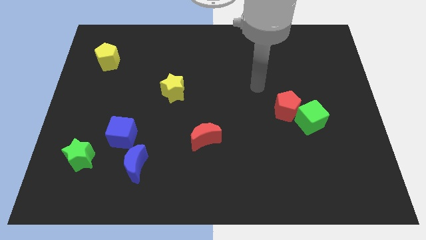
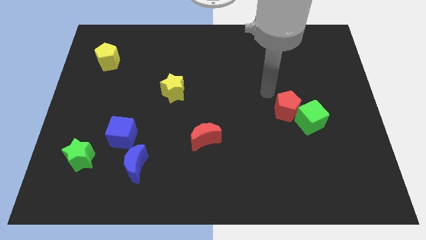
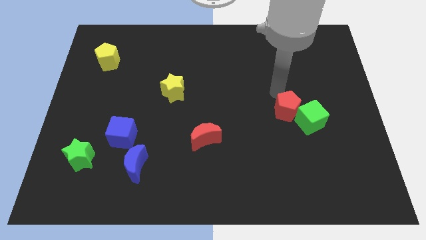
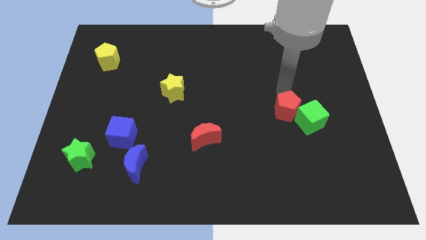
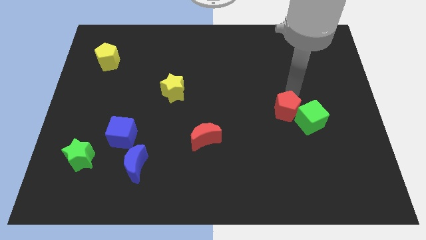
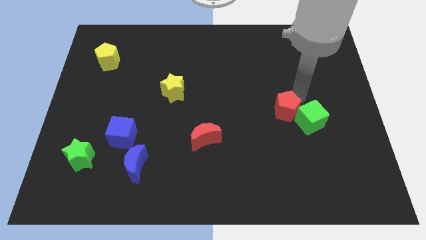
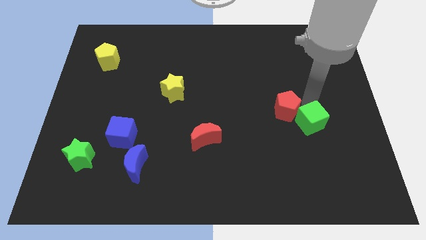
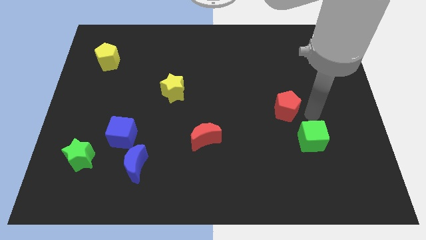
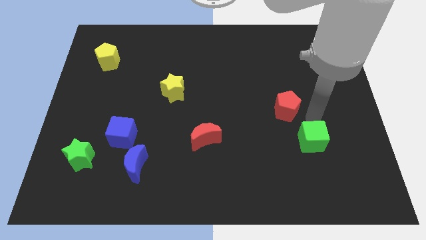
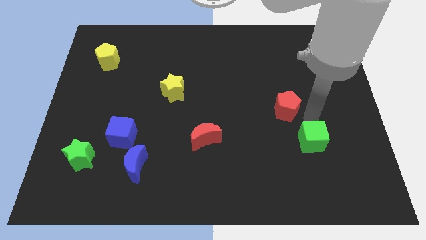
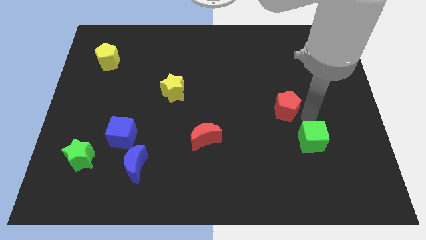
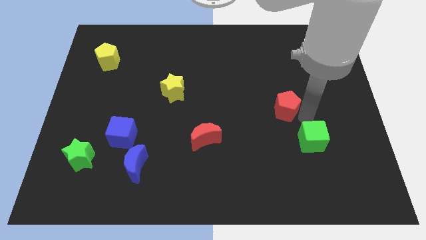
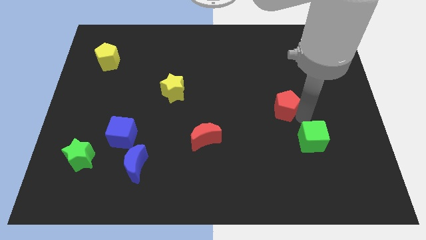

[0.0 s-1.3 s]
move the red pentagon away from the green cube

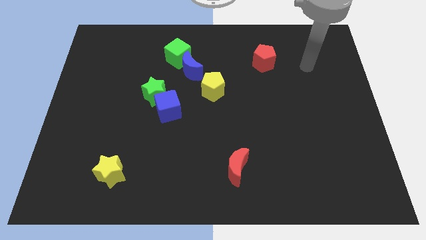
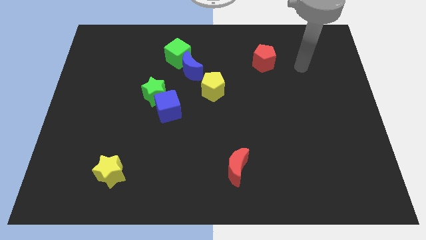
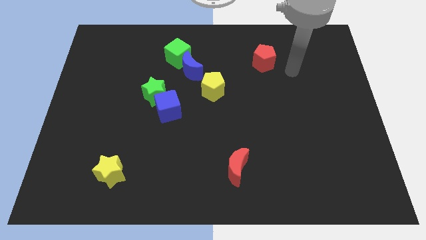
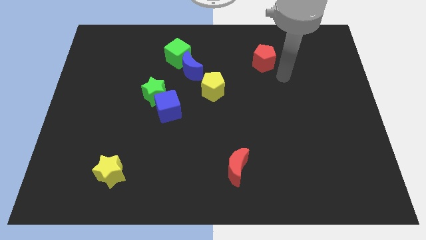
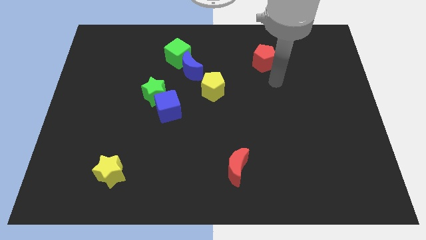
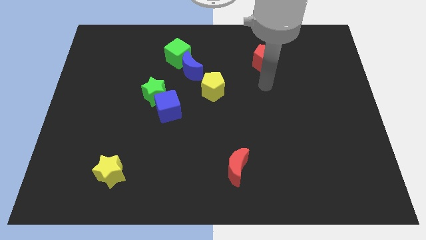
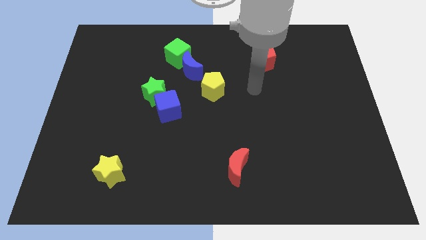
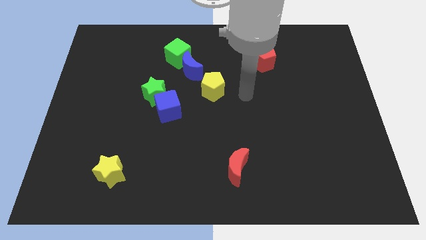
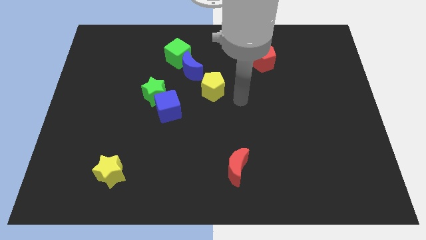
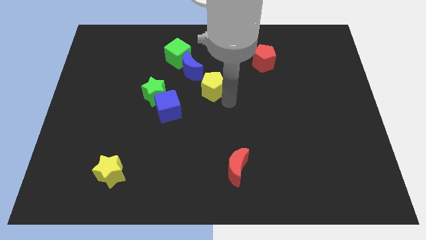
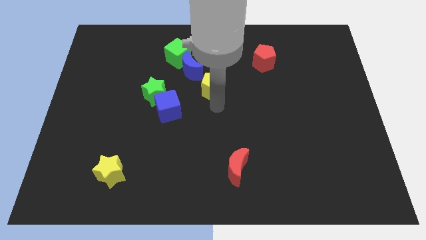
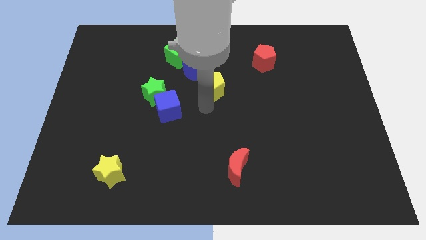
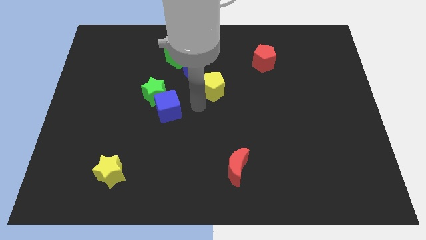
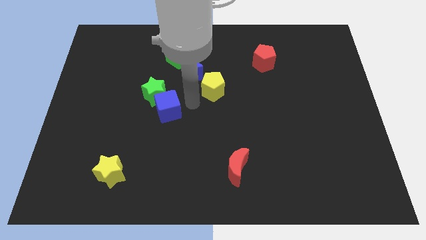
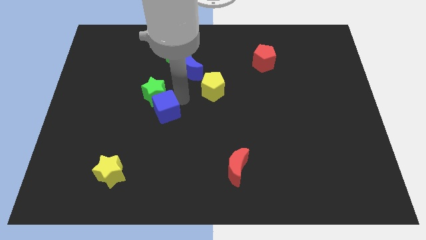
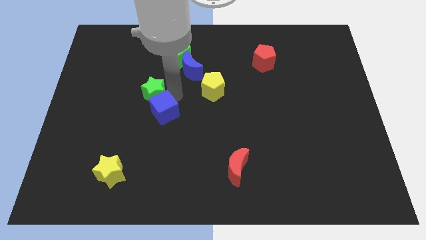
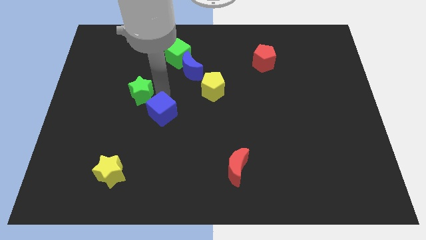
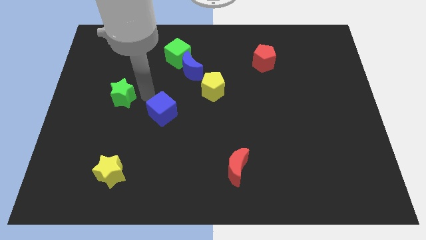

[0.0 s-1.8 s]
move the blue cube away from the green star

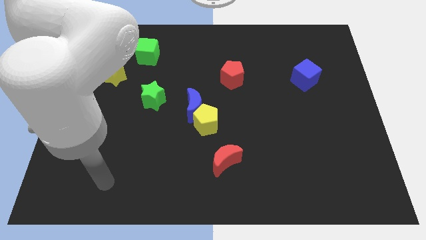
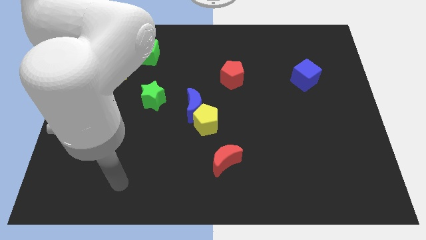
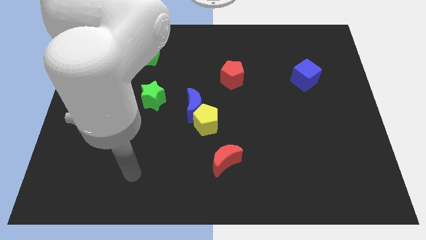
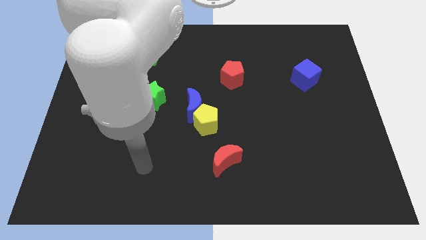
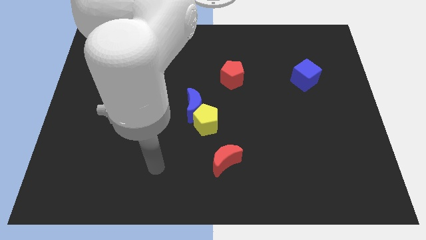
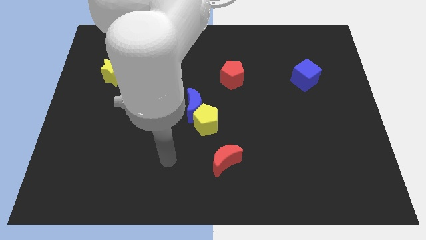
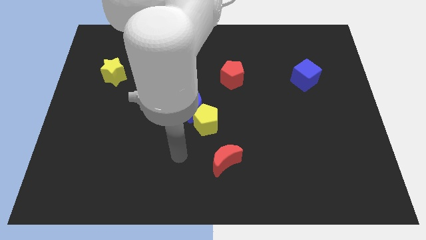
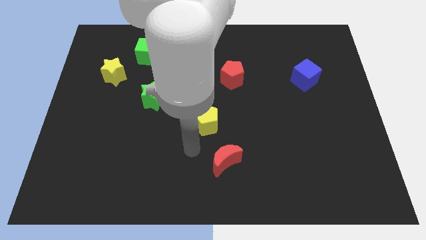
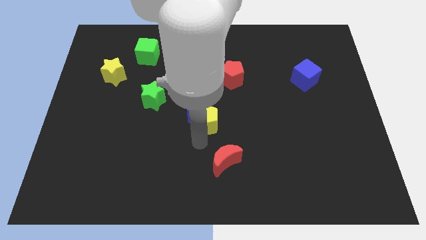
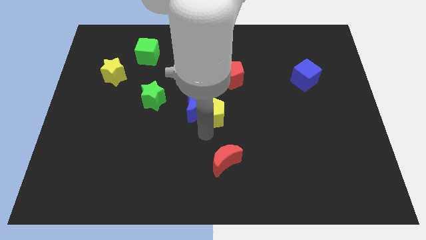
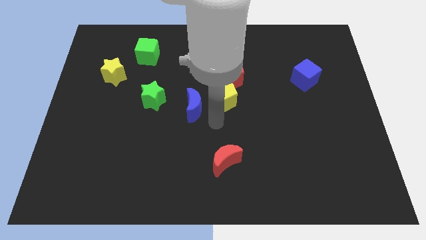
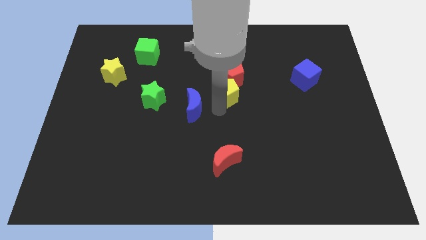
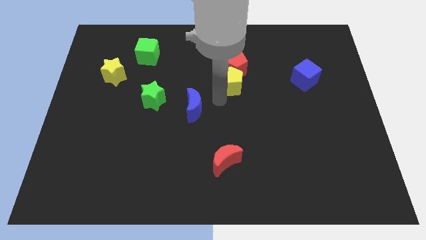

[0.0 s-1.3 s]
move the blue moon away from the yellow pentagon

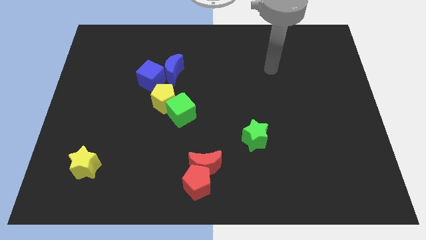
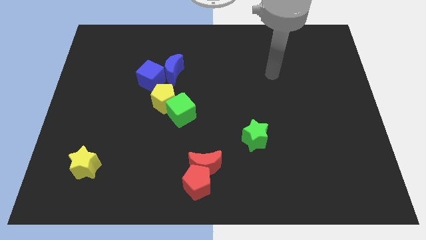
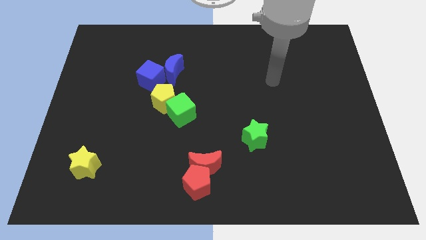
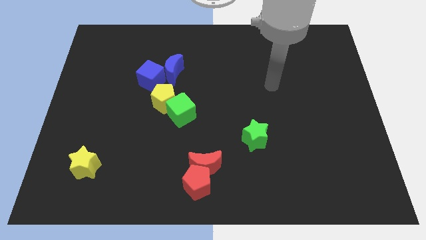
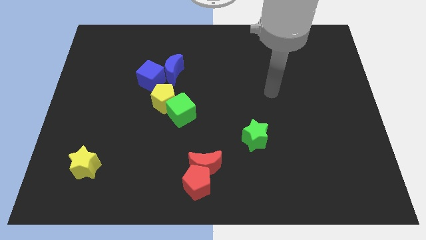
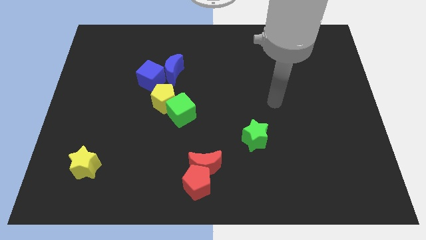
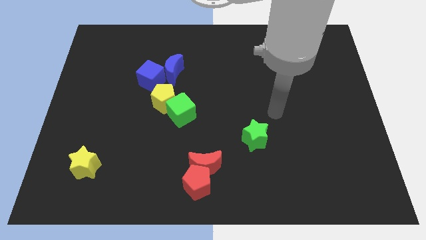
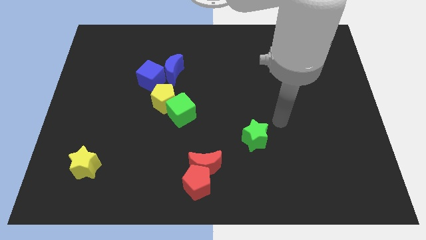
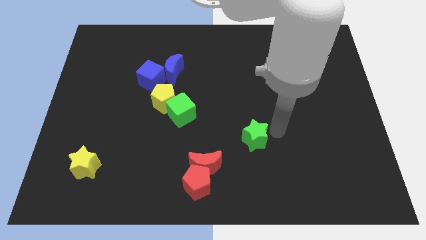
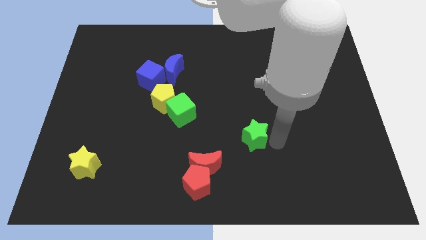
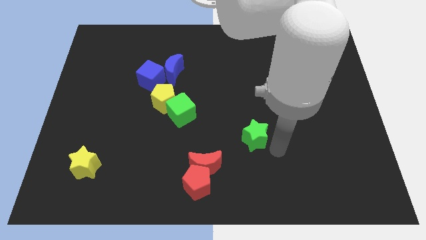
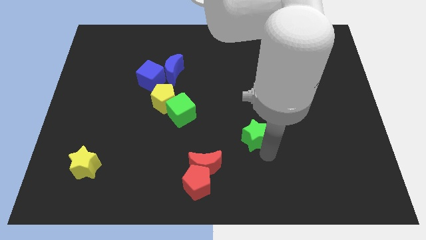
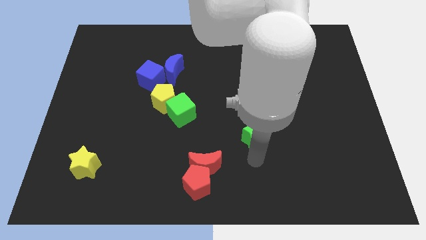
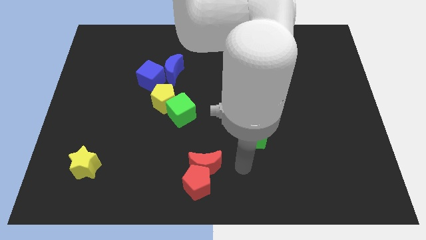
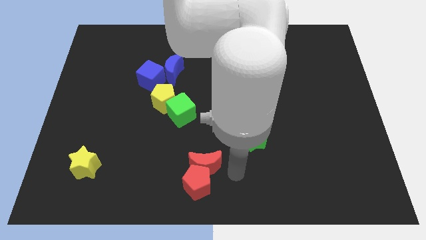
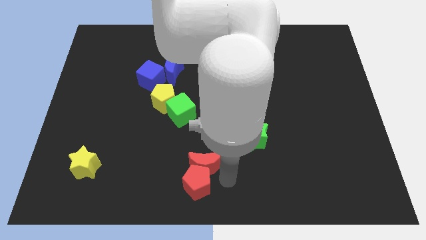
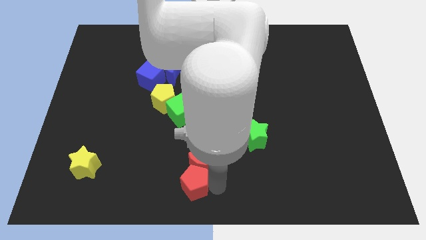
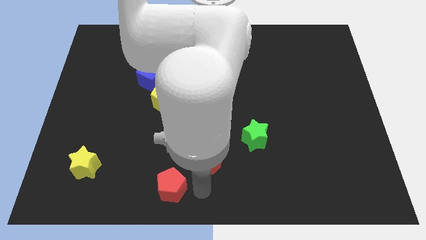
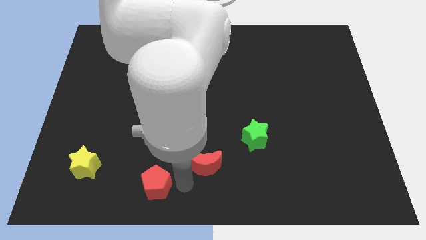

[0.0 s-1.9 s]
move the red moon away from the red pentagon

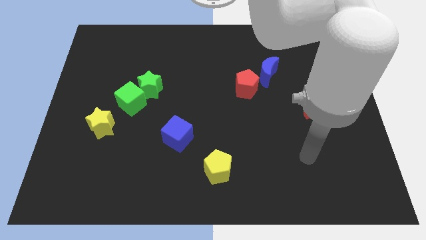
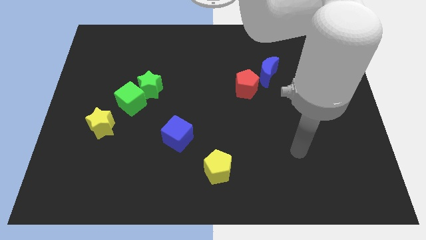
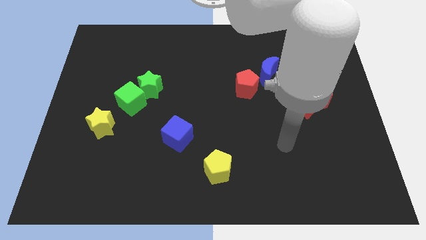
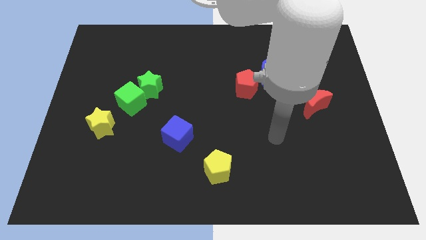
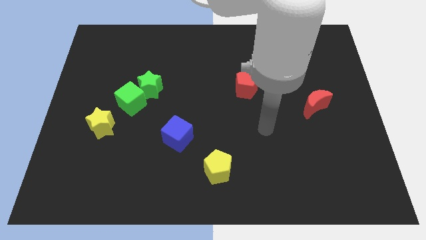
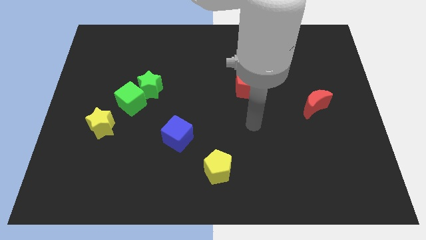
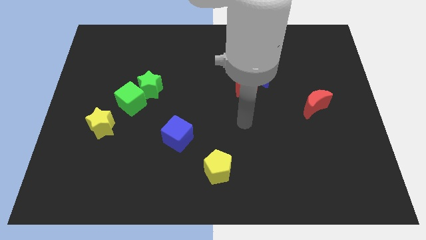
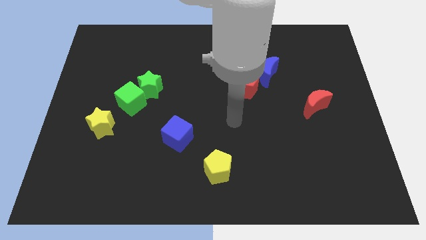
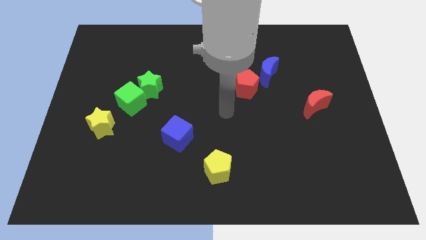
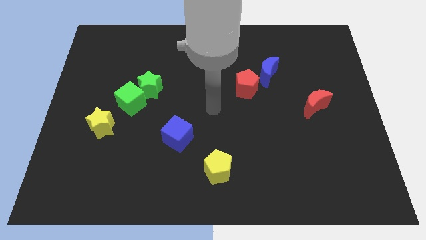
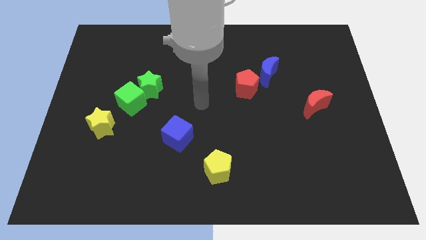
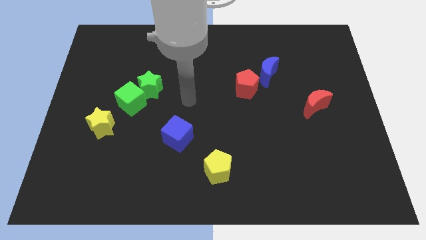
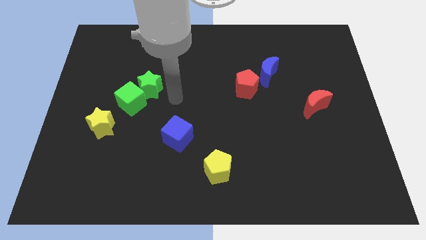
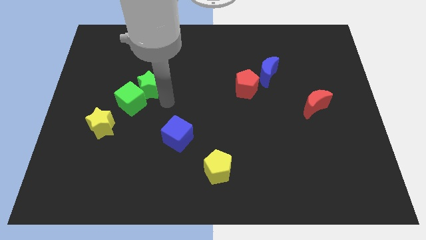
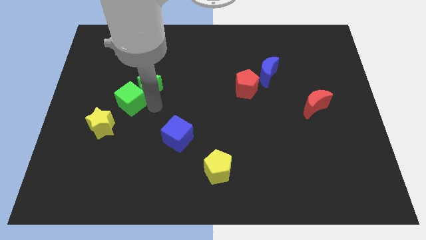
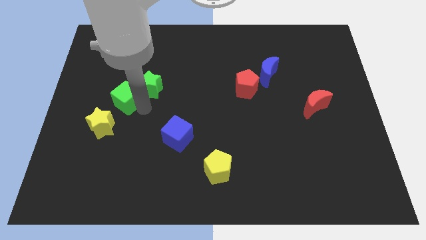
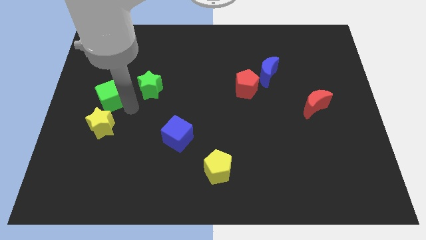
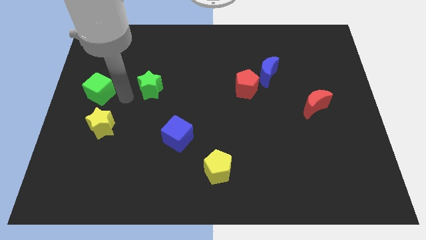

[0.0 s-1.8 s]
pull the green star apart from the green cube

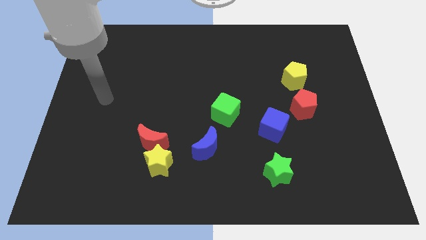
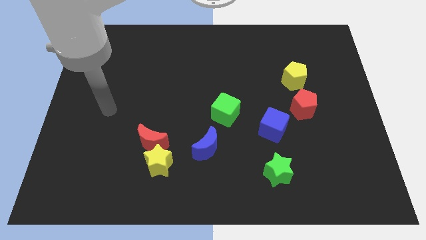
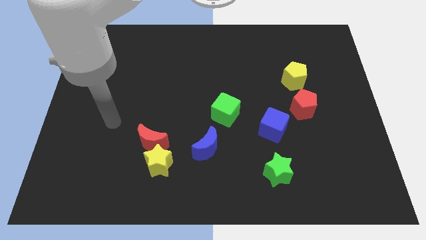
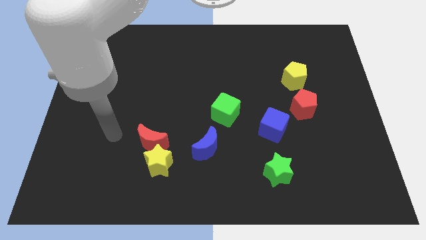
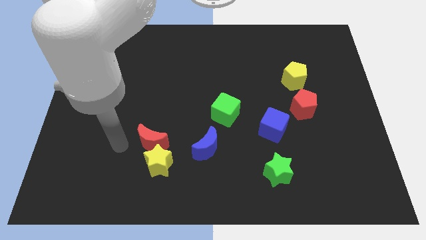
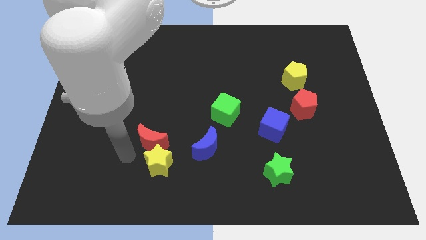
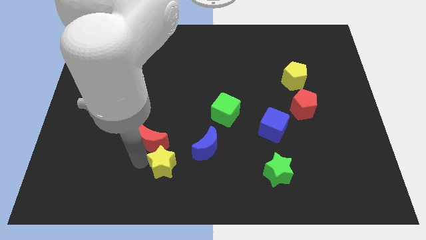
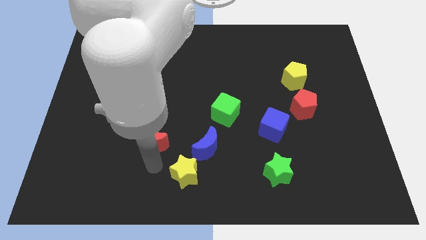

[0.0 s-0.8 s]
move the red moon away from the yellow star

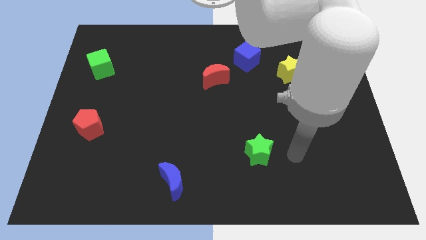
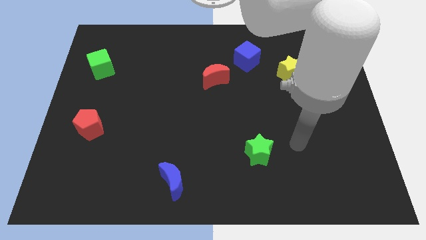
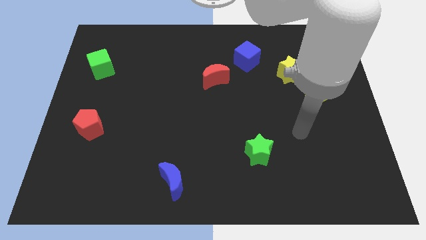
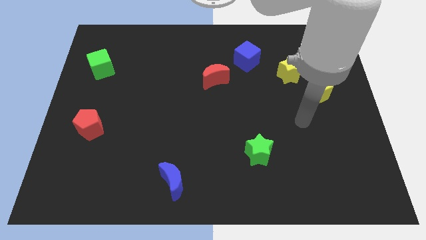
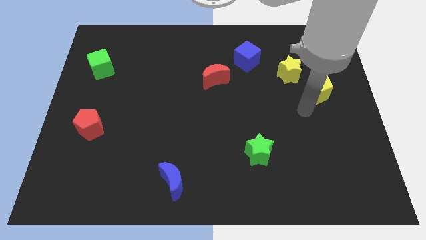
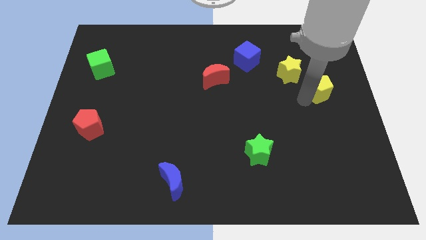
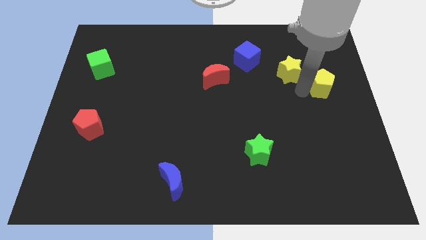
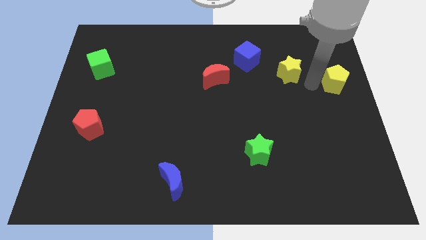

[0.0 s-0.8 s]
separate the yellow star from the yellow pentagon
